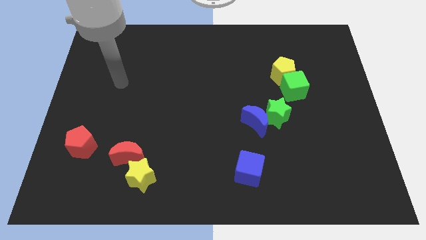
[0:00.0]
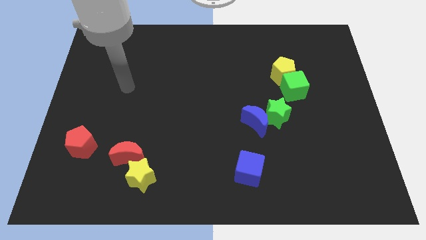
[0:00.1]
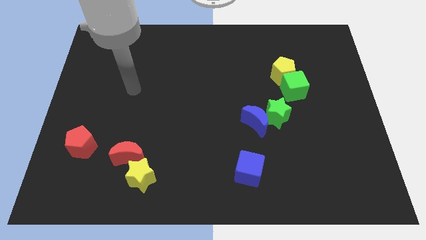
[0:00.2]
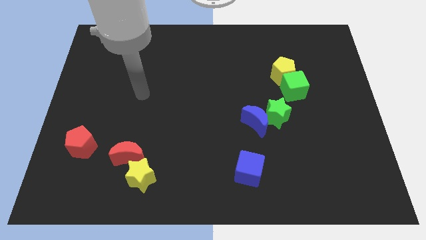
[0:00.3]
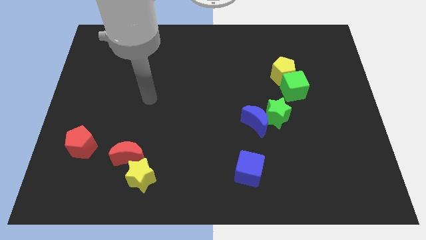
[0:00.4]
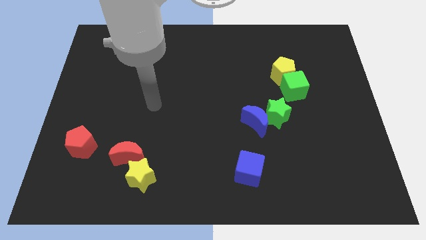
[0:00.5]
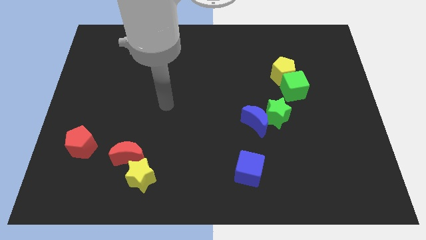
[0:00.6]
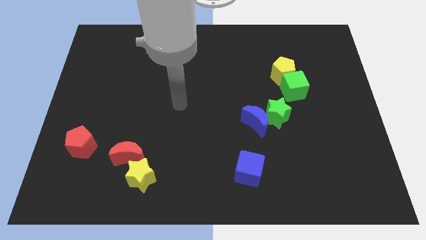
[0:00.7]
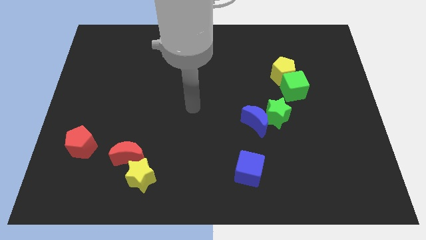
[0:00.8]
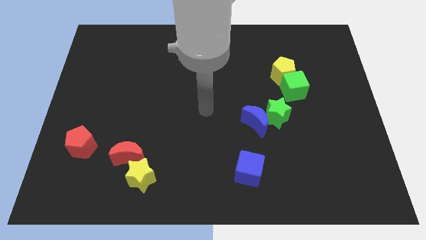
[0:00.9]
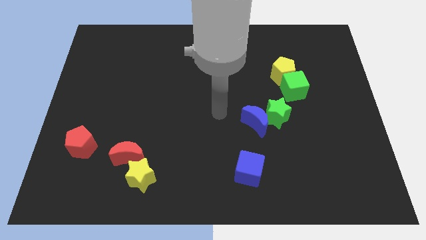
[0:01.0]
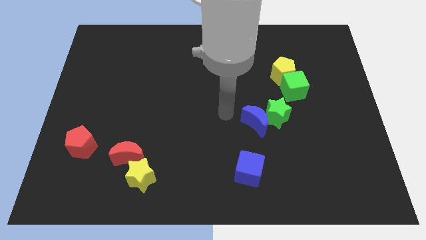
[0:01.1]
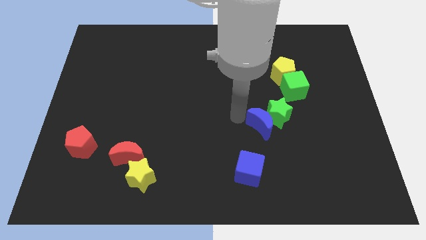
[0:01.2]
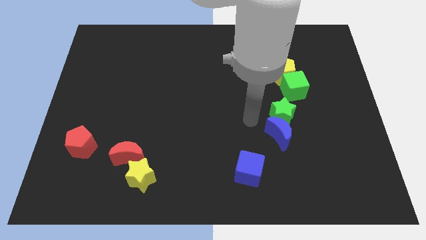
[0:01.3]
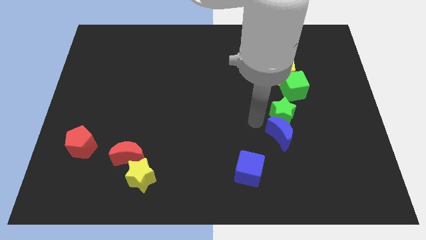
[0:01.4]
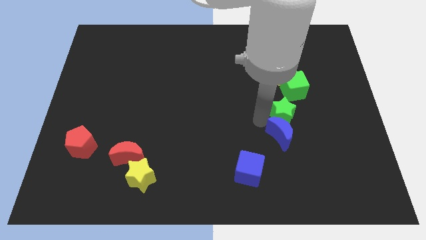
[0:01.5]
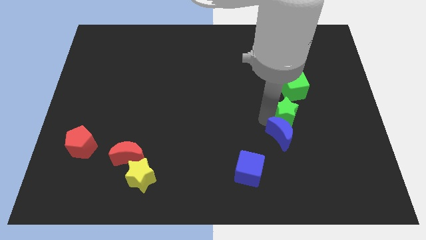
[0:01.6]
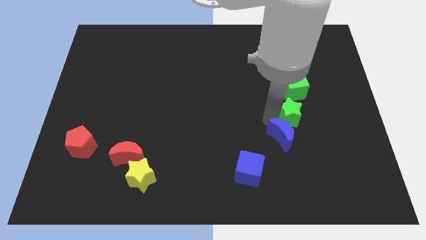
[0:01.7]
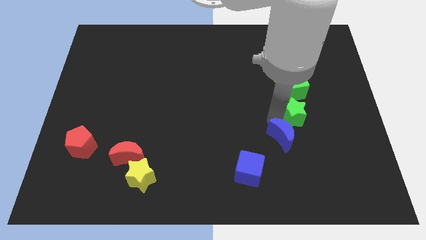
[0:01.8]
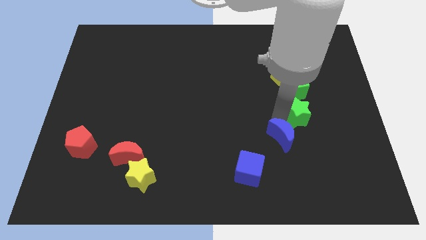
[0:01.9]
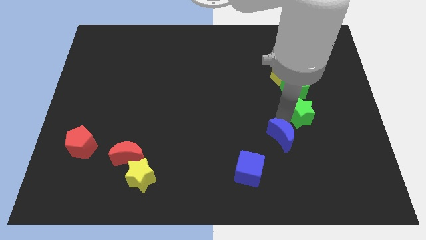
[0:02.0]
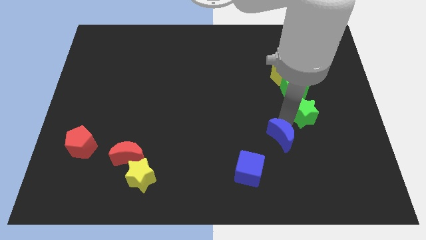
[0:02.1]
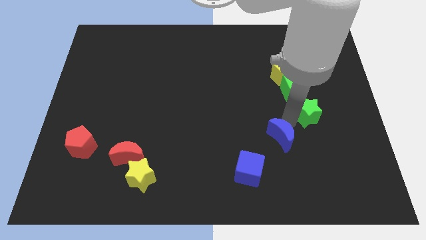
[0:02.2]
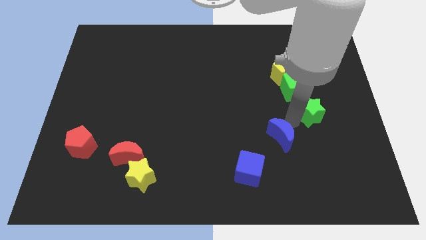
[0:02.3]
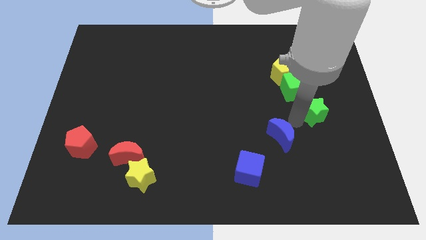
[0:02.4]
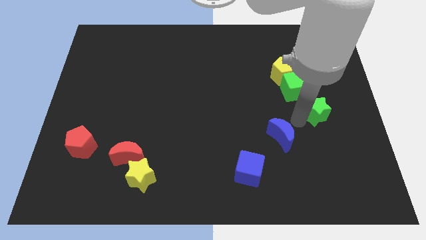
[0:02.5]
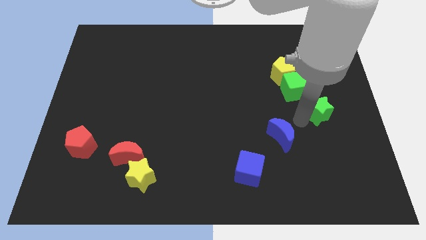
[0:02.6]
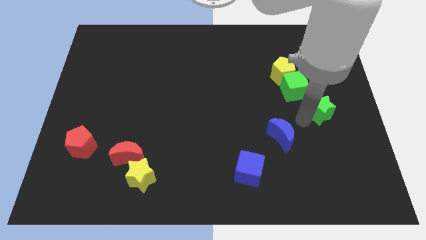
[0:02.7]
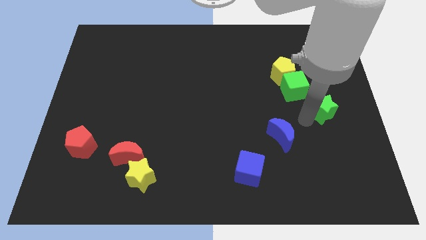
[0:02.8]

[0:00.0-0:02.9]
move the green star upwards and right a bit

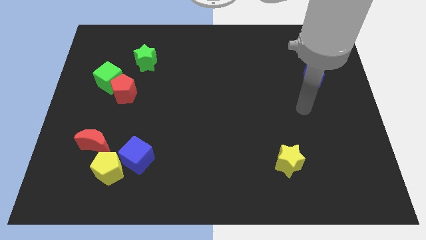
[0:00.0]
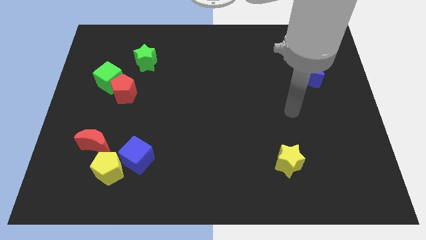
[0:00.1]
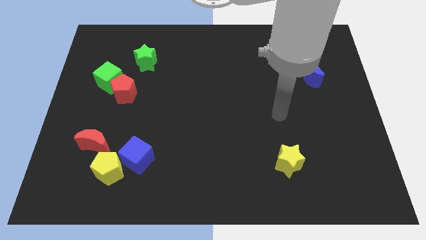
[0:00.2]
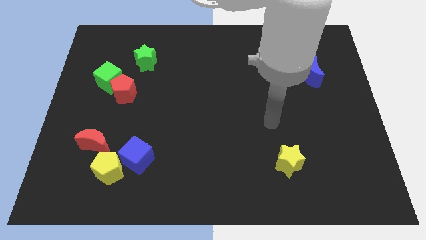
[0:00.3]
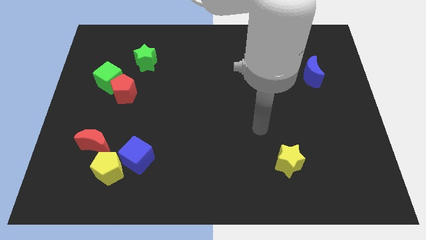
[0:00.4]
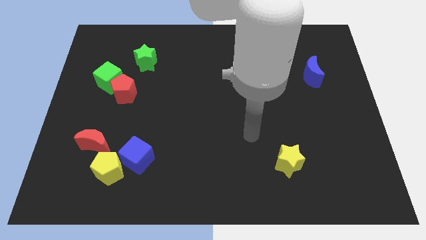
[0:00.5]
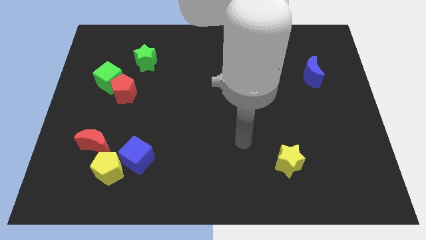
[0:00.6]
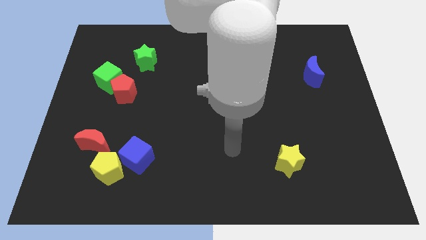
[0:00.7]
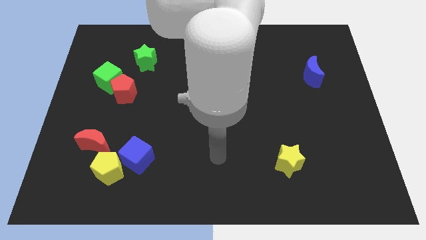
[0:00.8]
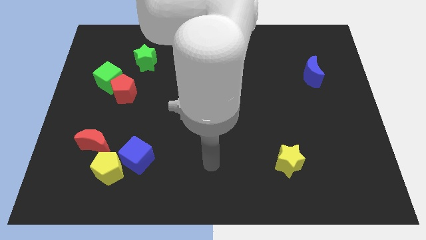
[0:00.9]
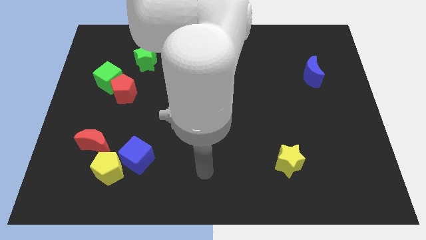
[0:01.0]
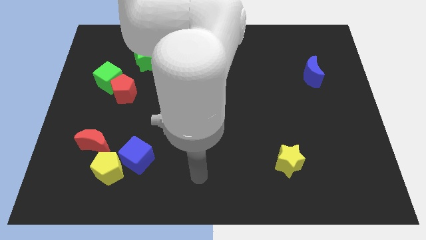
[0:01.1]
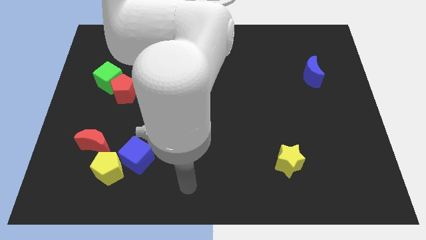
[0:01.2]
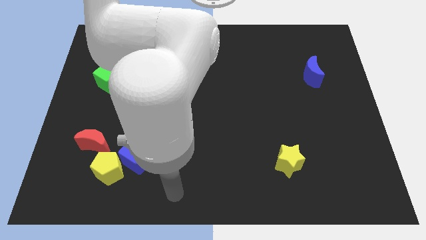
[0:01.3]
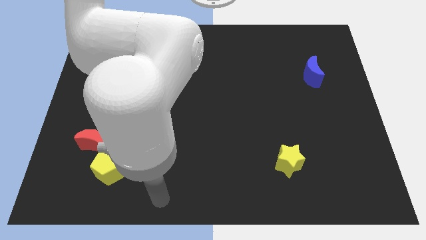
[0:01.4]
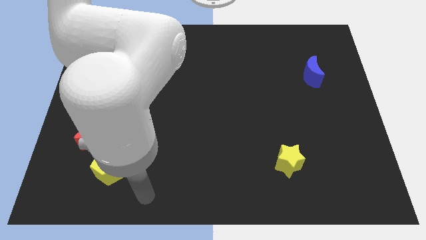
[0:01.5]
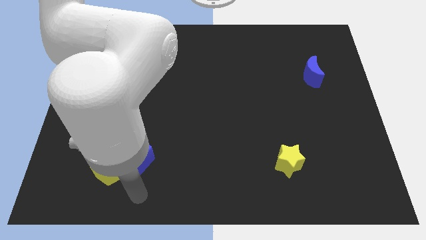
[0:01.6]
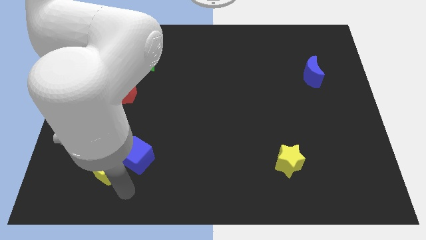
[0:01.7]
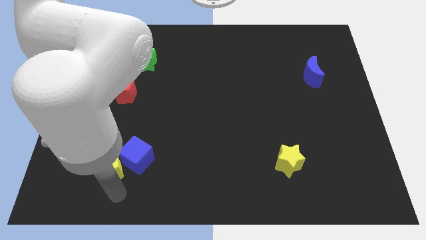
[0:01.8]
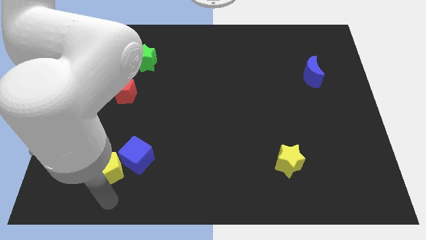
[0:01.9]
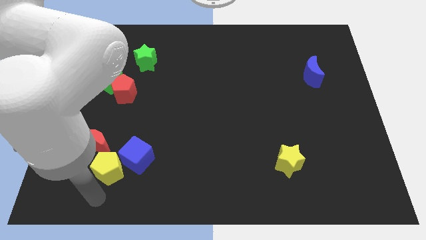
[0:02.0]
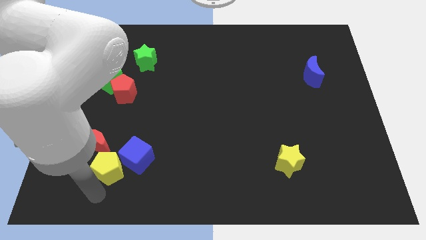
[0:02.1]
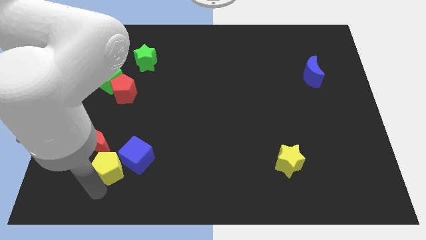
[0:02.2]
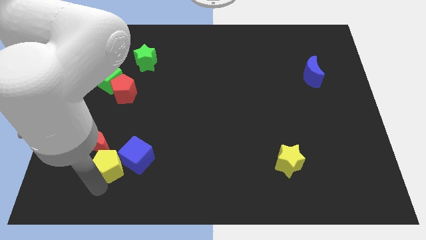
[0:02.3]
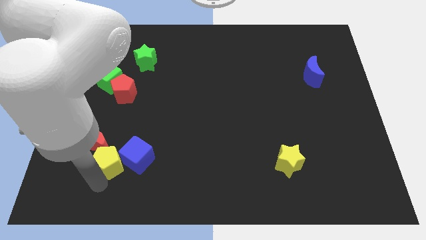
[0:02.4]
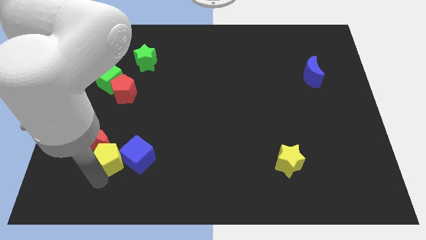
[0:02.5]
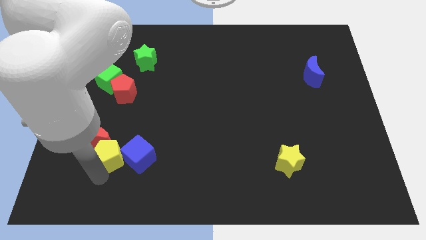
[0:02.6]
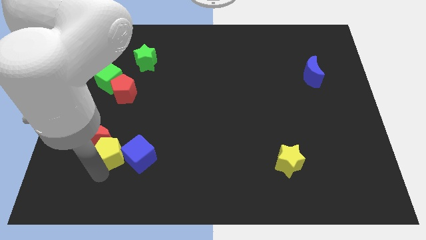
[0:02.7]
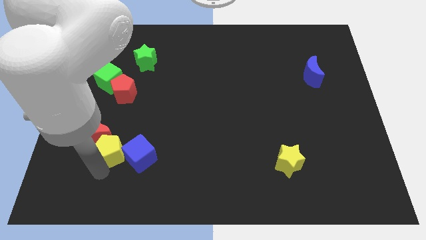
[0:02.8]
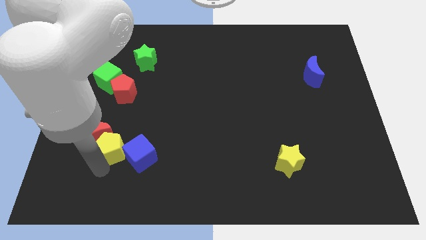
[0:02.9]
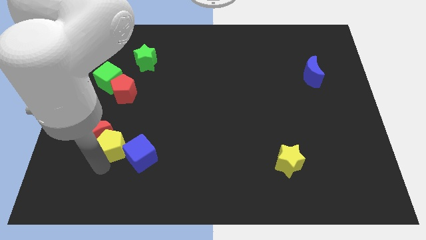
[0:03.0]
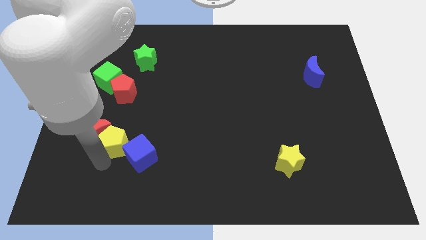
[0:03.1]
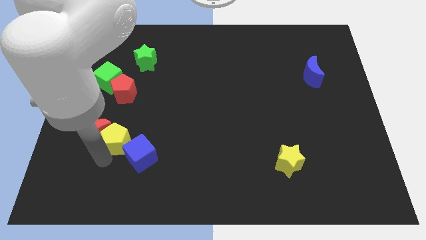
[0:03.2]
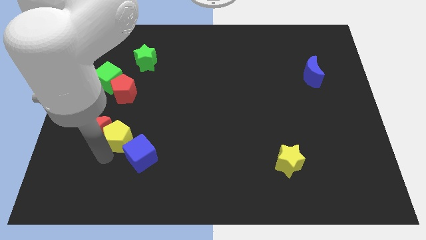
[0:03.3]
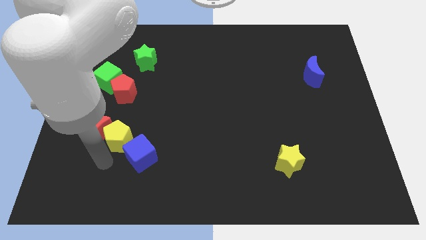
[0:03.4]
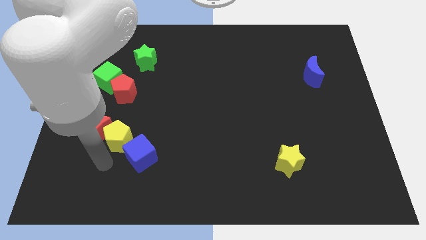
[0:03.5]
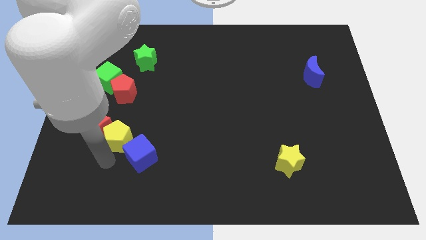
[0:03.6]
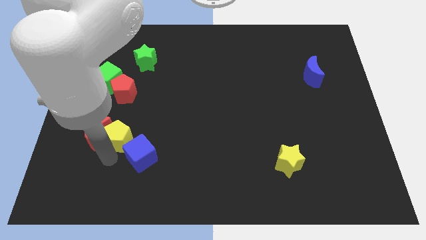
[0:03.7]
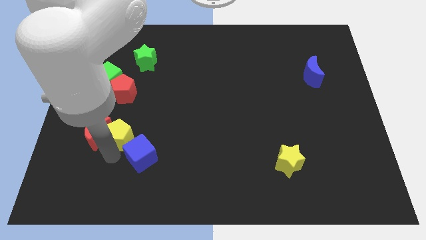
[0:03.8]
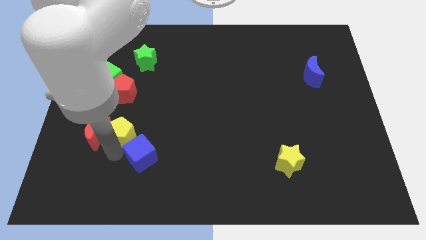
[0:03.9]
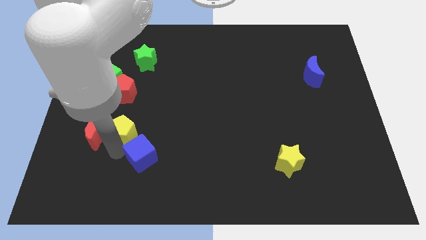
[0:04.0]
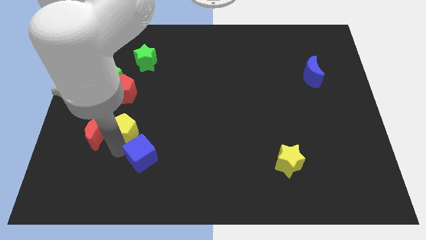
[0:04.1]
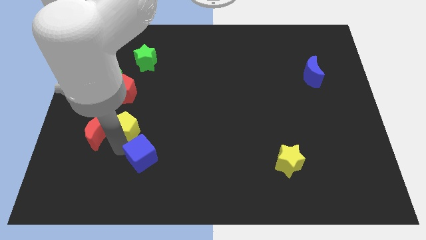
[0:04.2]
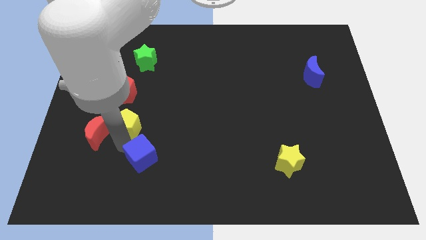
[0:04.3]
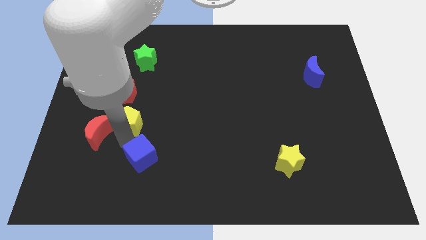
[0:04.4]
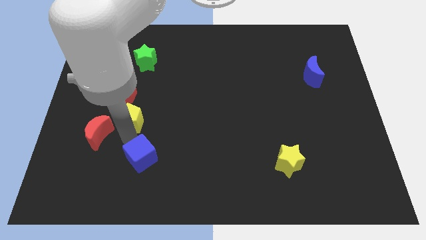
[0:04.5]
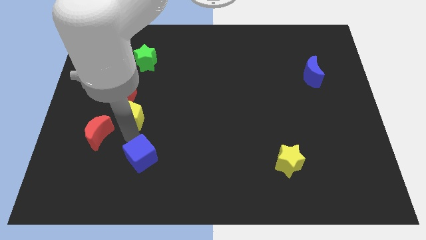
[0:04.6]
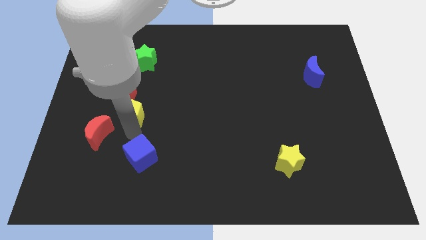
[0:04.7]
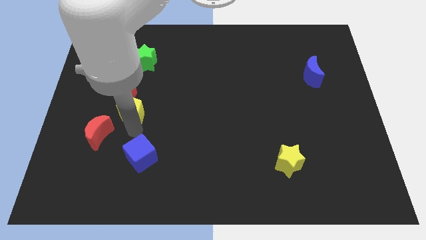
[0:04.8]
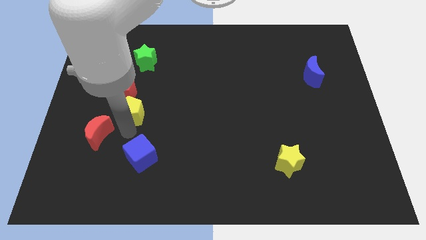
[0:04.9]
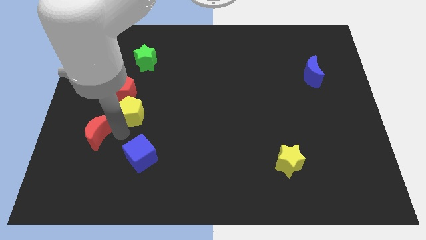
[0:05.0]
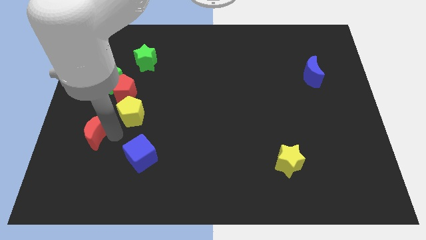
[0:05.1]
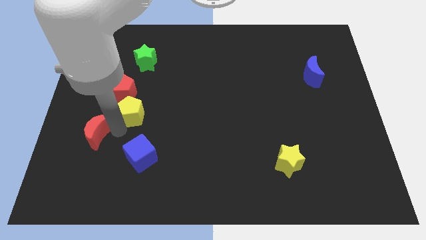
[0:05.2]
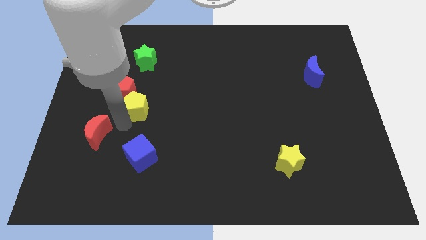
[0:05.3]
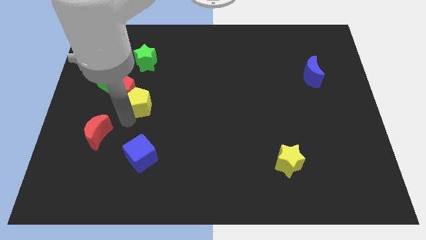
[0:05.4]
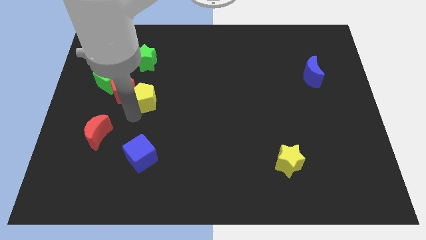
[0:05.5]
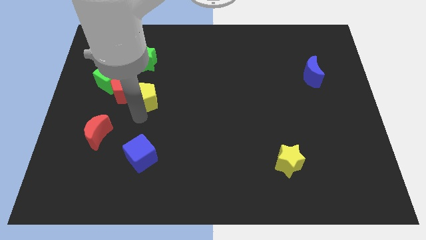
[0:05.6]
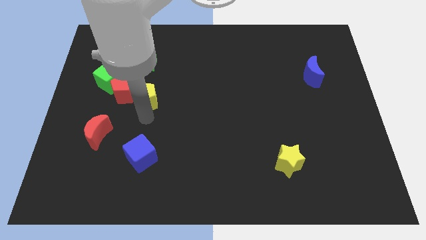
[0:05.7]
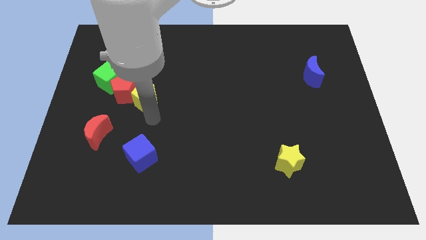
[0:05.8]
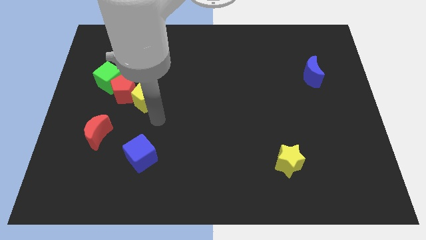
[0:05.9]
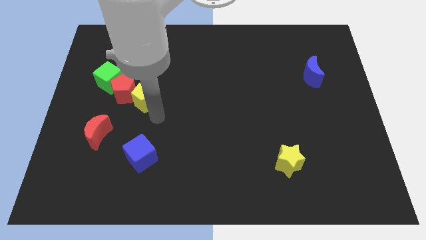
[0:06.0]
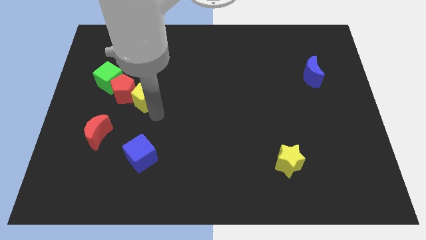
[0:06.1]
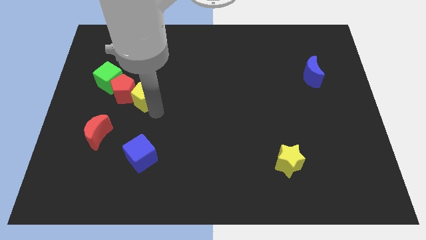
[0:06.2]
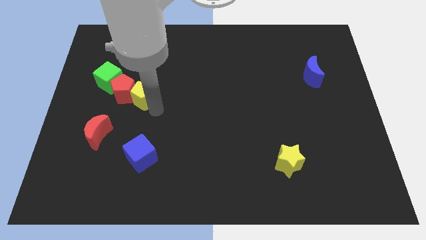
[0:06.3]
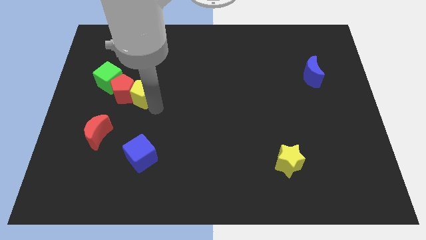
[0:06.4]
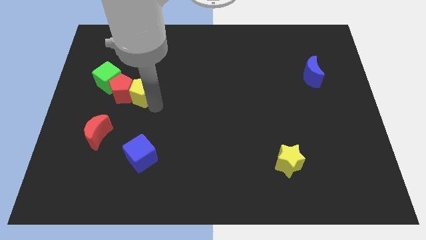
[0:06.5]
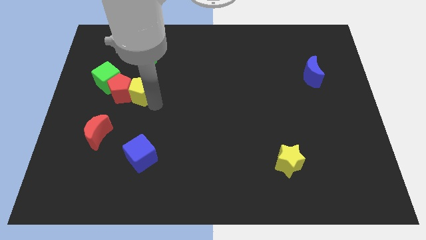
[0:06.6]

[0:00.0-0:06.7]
move the yellow pentagon upwards
